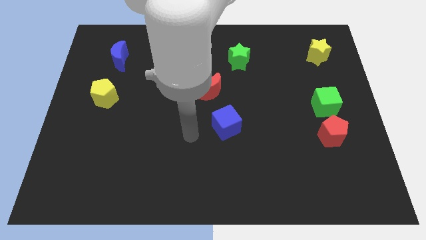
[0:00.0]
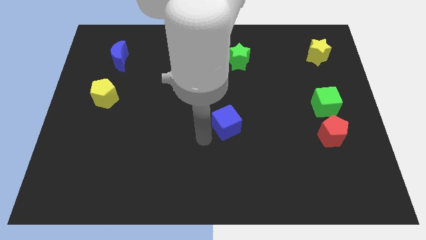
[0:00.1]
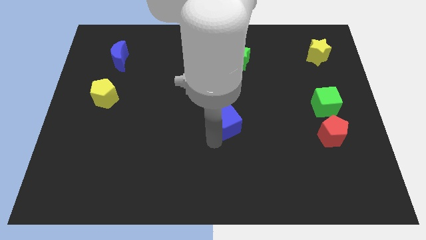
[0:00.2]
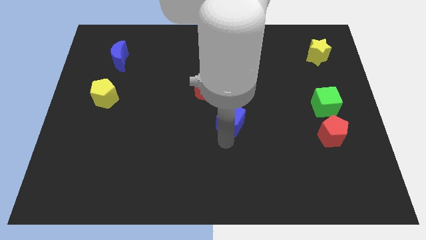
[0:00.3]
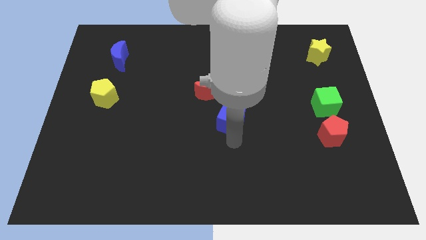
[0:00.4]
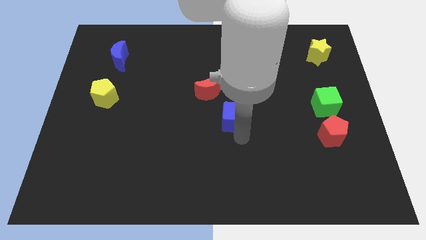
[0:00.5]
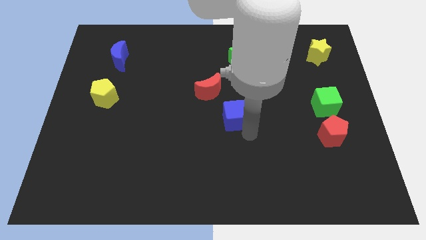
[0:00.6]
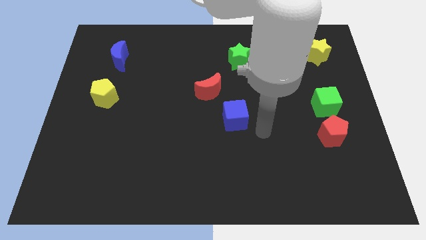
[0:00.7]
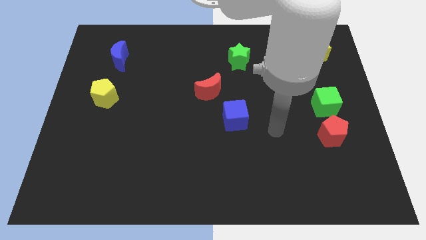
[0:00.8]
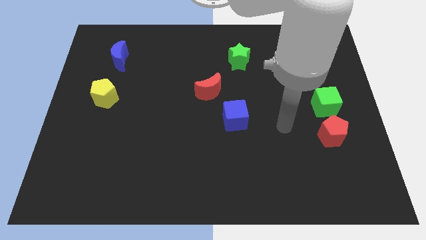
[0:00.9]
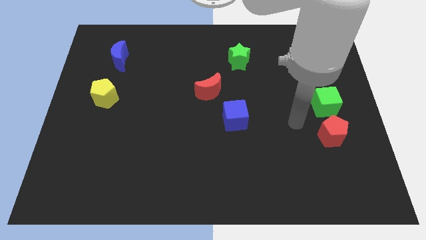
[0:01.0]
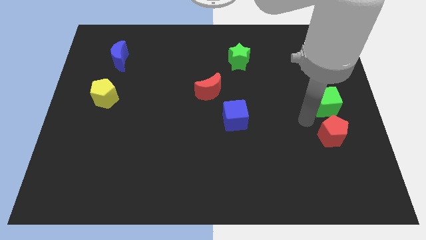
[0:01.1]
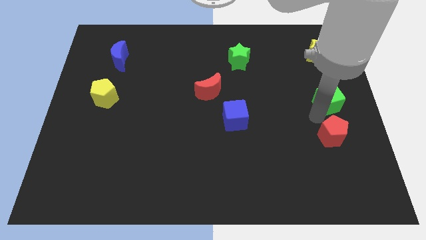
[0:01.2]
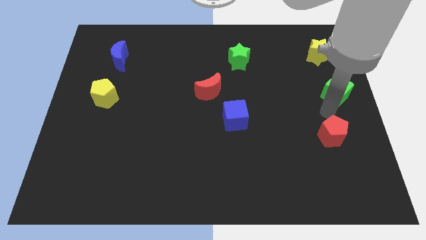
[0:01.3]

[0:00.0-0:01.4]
pull the red pentagon apart from the green cube

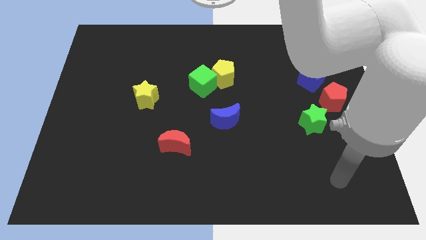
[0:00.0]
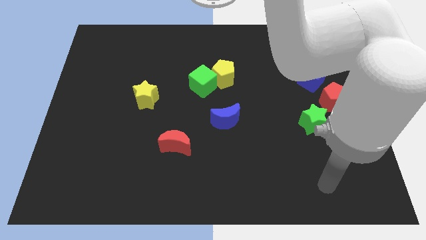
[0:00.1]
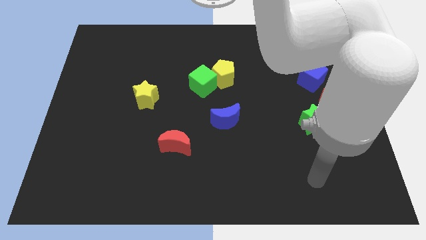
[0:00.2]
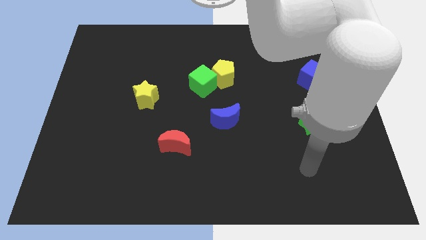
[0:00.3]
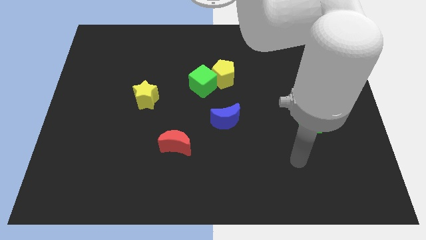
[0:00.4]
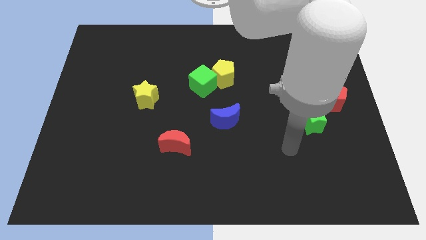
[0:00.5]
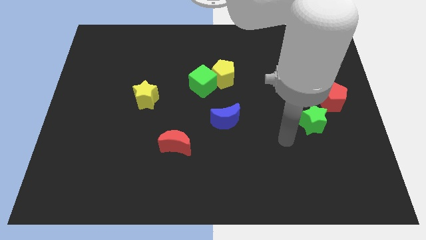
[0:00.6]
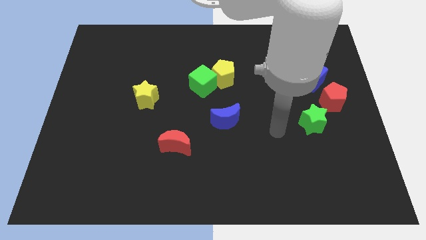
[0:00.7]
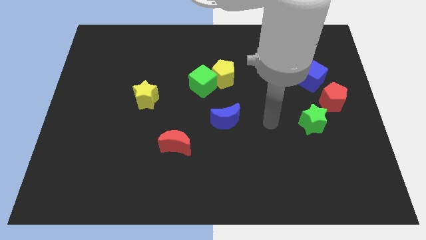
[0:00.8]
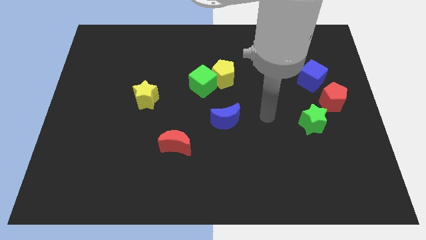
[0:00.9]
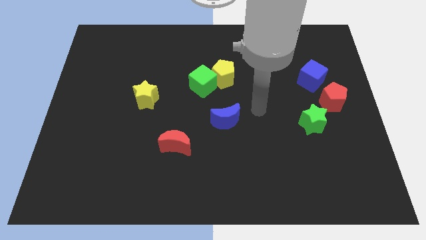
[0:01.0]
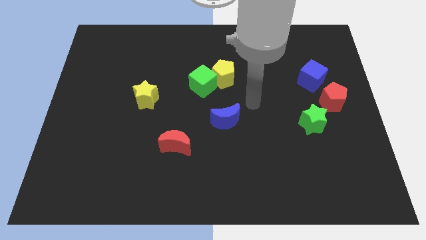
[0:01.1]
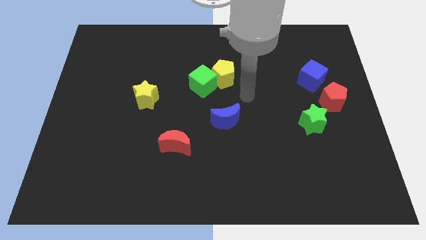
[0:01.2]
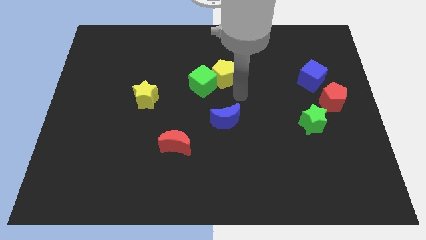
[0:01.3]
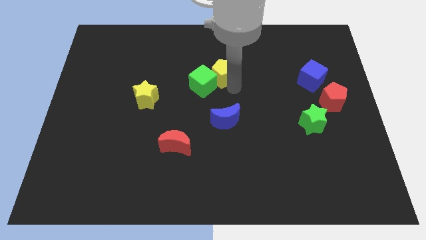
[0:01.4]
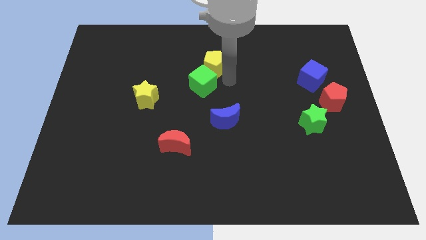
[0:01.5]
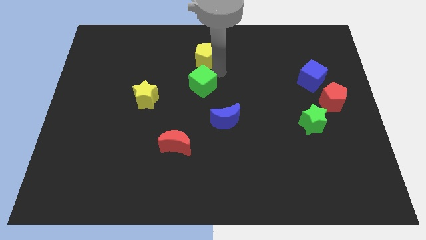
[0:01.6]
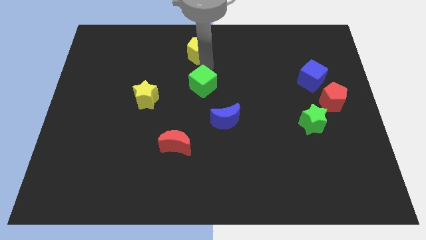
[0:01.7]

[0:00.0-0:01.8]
separate the green cube from the yellow pentagon

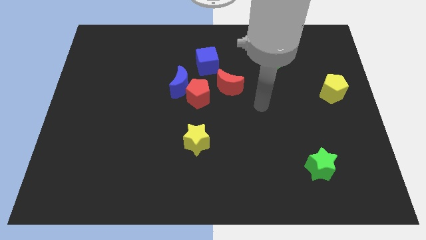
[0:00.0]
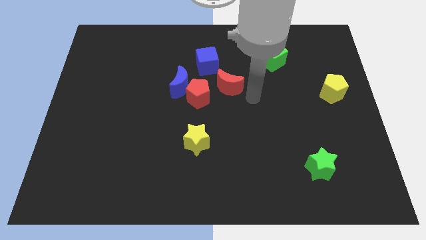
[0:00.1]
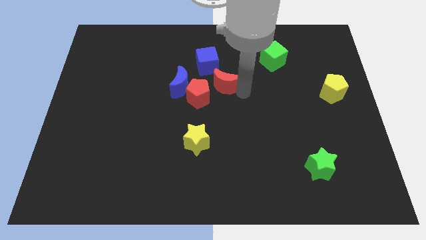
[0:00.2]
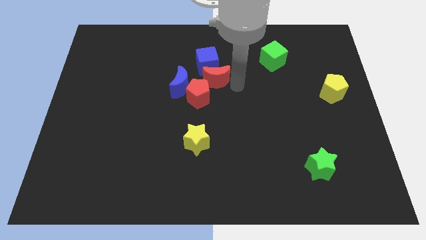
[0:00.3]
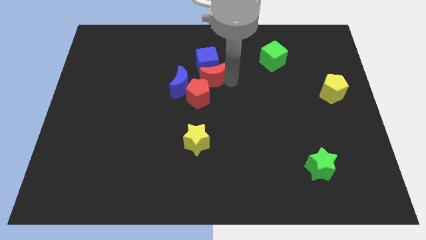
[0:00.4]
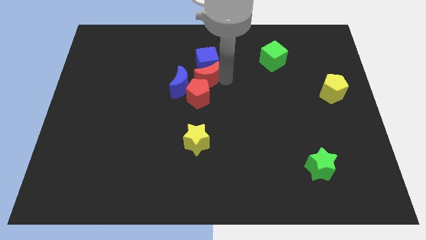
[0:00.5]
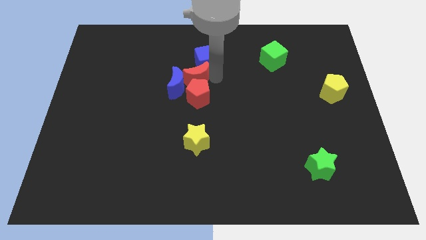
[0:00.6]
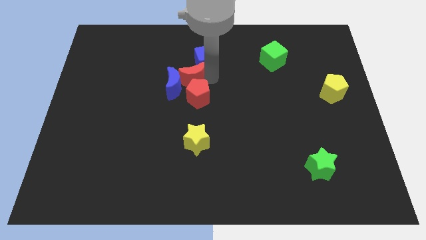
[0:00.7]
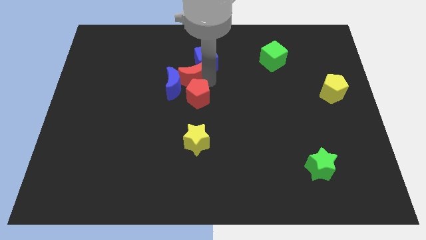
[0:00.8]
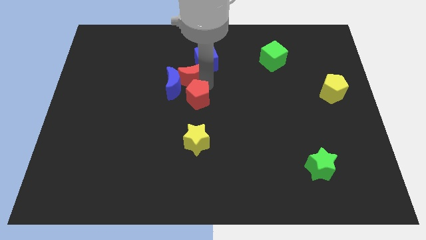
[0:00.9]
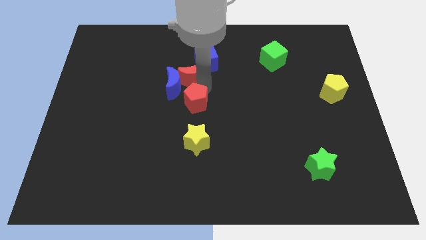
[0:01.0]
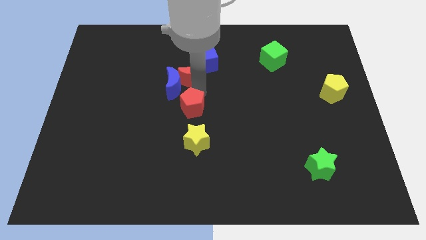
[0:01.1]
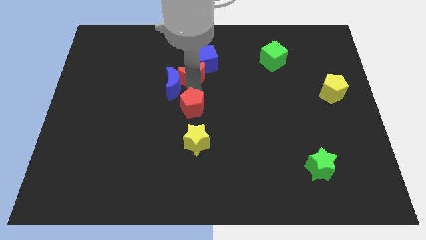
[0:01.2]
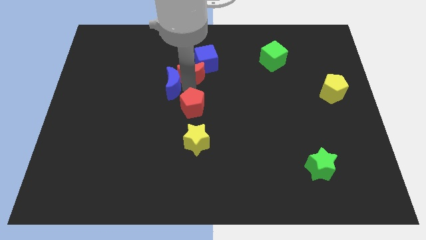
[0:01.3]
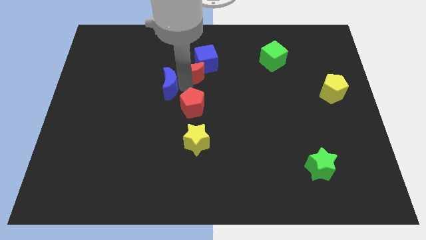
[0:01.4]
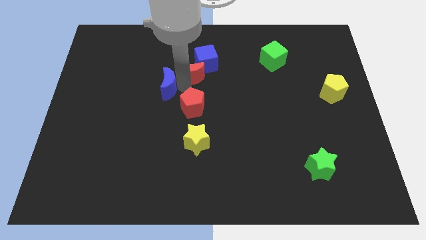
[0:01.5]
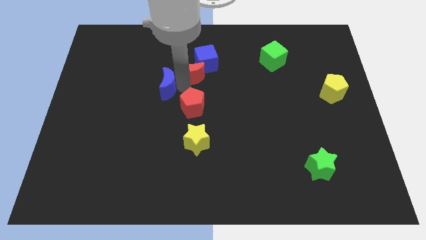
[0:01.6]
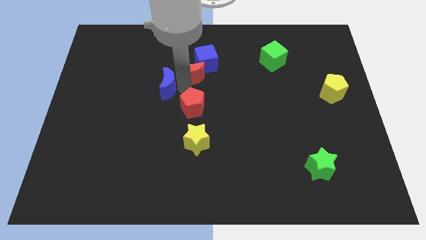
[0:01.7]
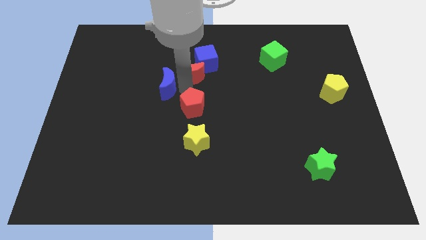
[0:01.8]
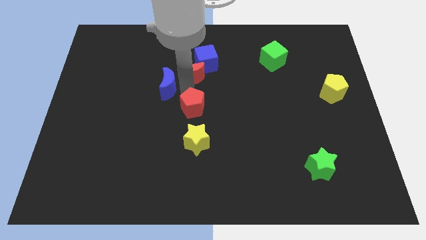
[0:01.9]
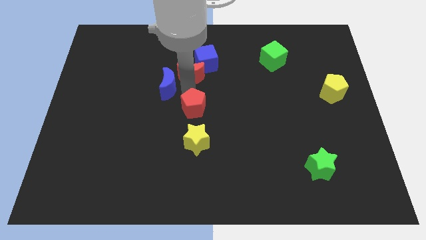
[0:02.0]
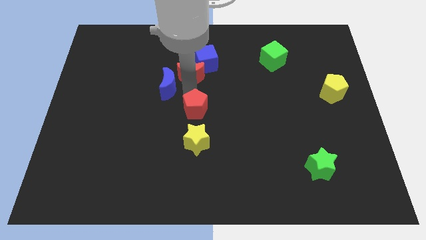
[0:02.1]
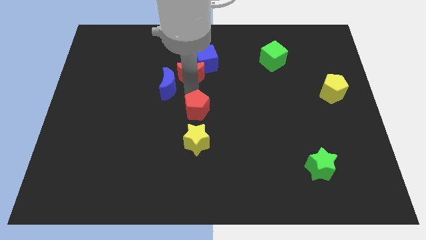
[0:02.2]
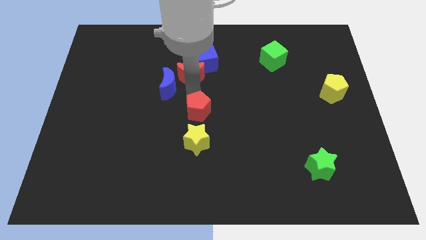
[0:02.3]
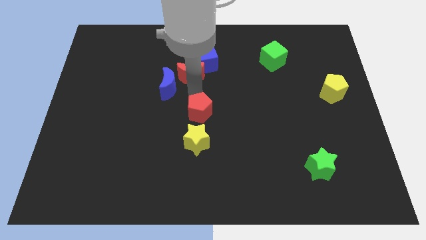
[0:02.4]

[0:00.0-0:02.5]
move the red pentagon away from the blue moon and red moon

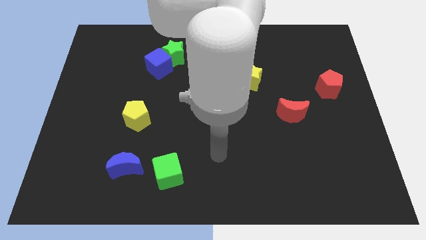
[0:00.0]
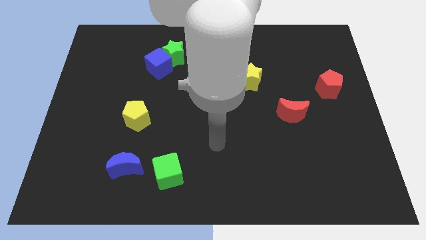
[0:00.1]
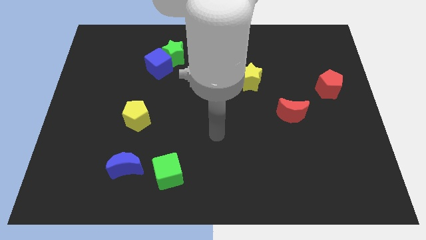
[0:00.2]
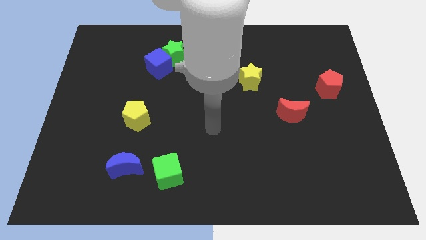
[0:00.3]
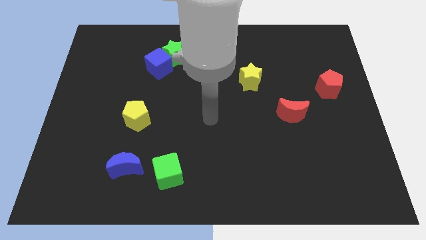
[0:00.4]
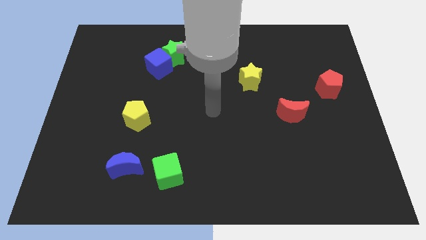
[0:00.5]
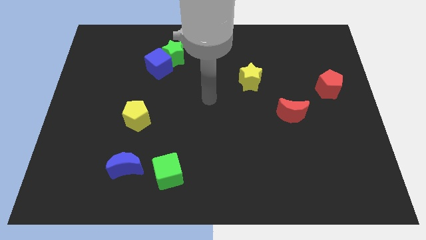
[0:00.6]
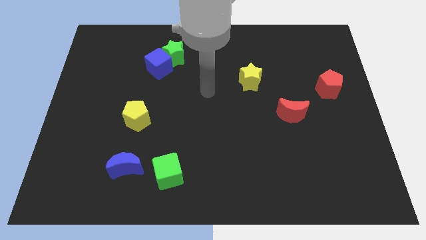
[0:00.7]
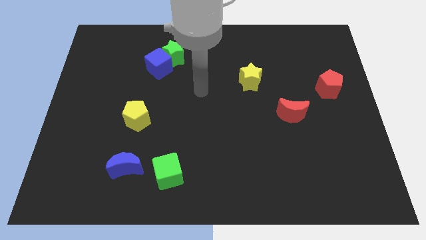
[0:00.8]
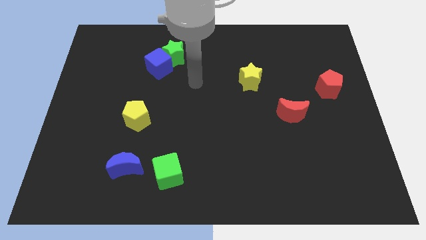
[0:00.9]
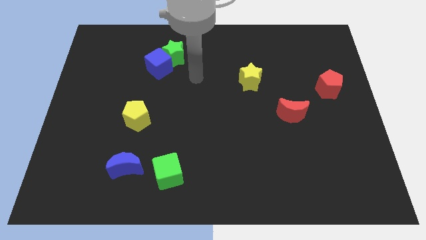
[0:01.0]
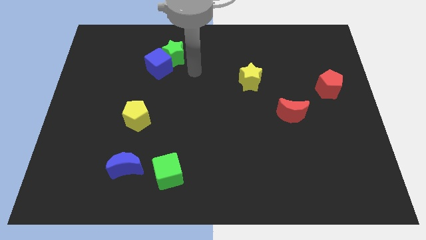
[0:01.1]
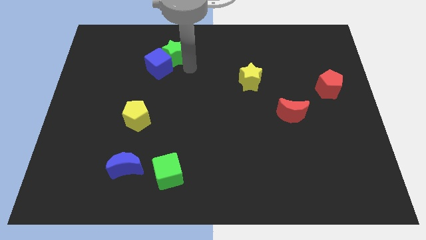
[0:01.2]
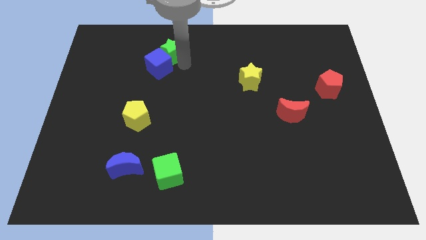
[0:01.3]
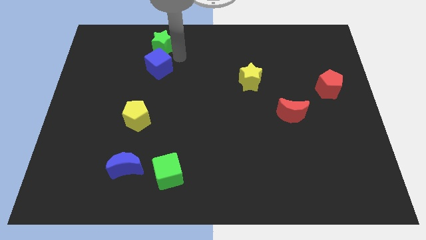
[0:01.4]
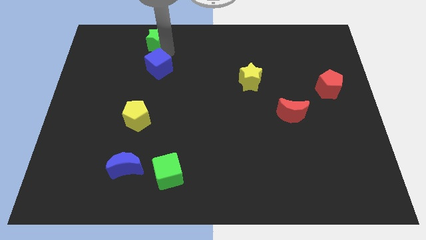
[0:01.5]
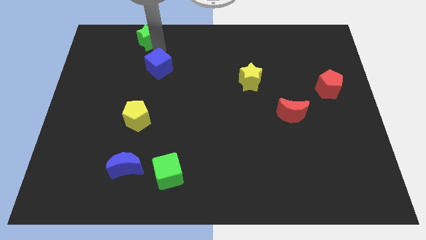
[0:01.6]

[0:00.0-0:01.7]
pull the blue cube apart from the green star

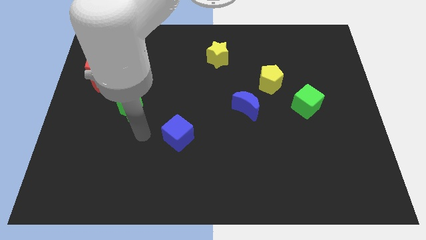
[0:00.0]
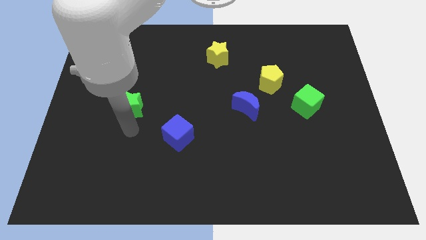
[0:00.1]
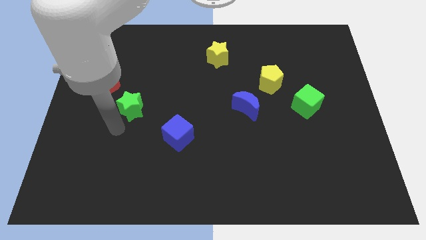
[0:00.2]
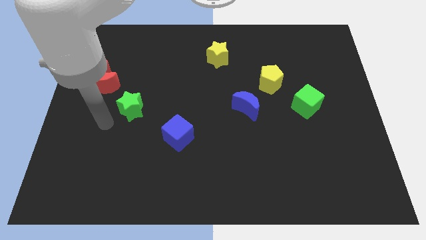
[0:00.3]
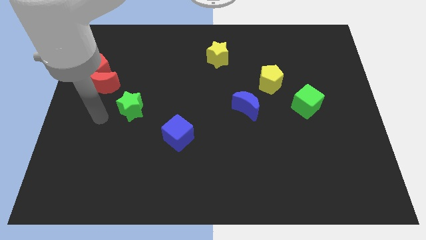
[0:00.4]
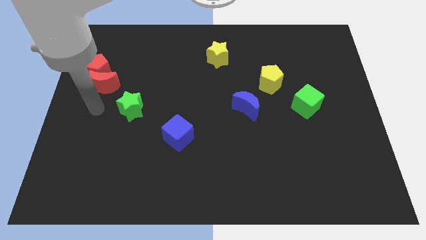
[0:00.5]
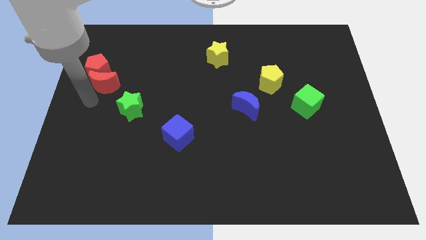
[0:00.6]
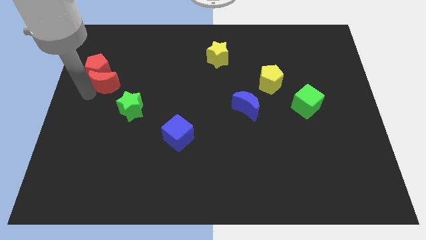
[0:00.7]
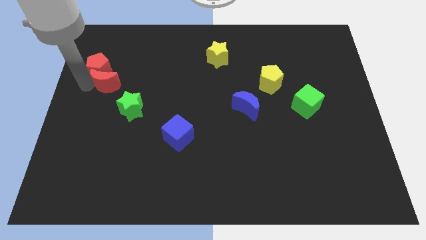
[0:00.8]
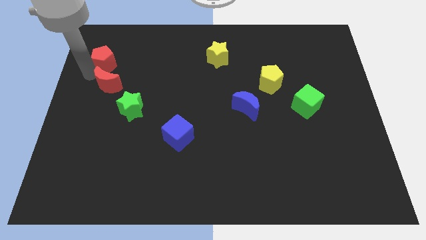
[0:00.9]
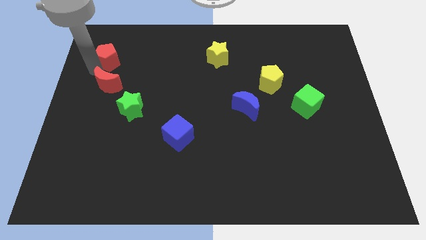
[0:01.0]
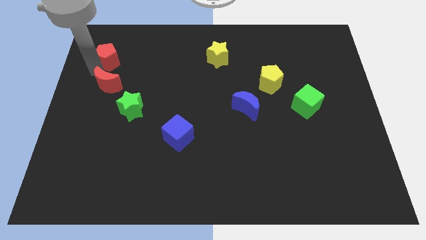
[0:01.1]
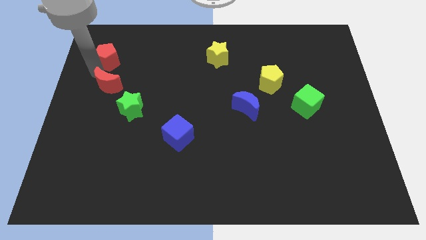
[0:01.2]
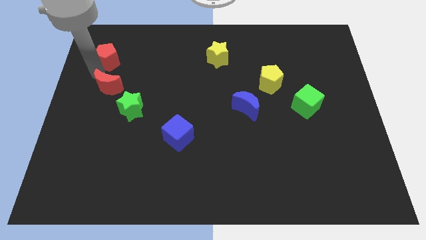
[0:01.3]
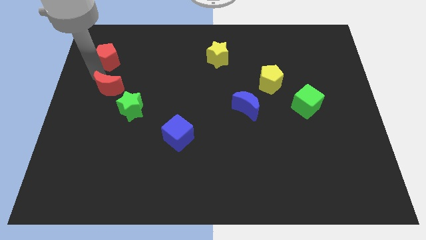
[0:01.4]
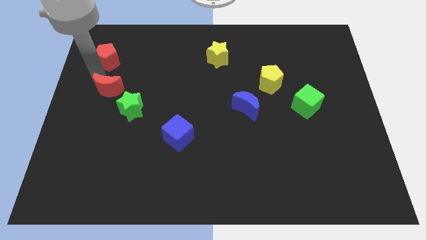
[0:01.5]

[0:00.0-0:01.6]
pull the red moon apart from the red pentagon

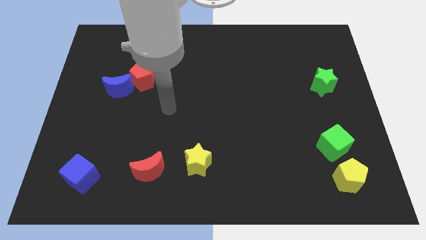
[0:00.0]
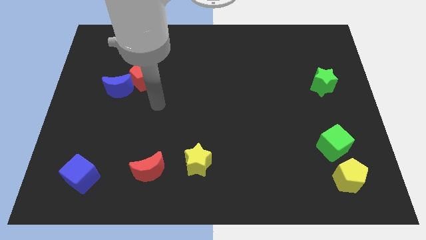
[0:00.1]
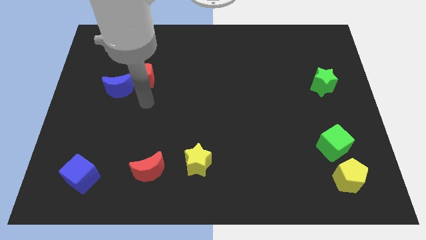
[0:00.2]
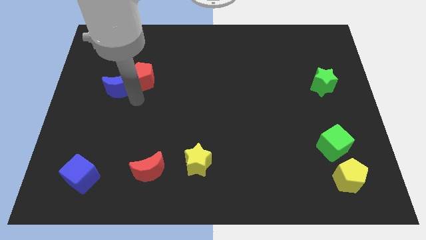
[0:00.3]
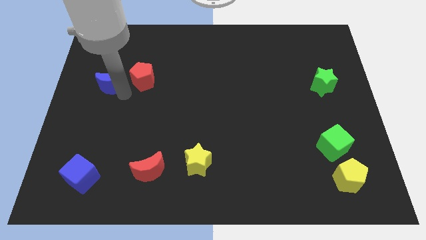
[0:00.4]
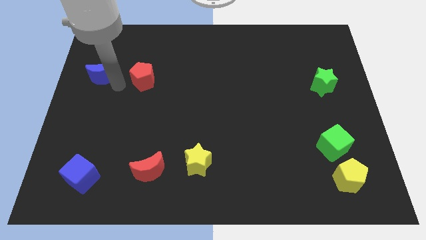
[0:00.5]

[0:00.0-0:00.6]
move the red pentagon away from the blue moon
